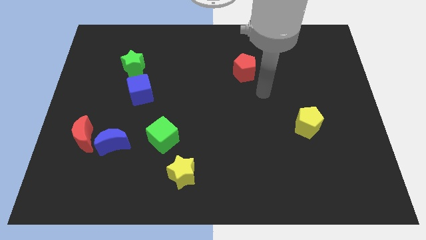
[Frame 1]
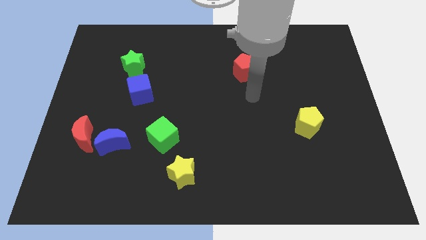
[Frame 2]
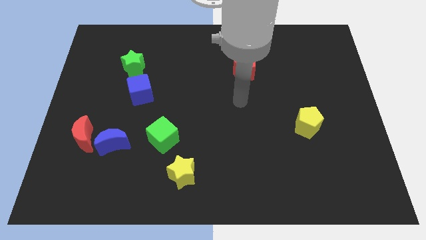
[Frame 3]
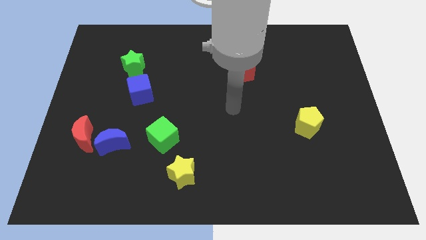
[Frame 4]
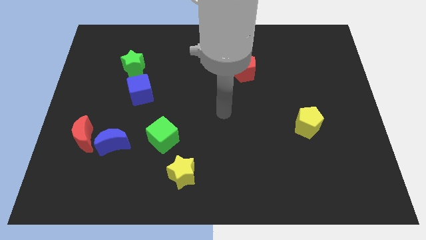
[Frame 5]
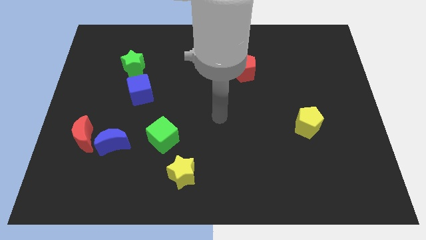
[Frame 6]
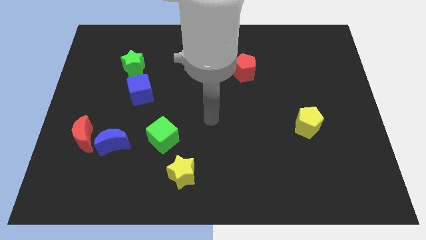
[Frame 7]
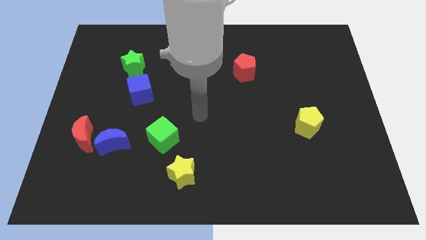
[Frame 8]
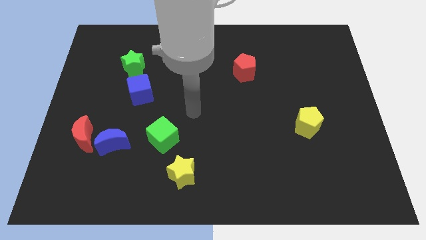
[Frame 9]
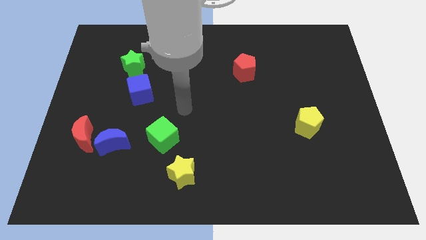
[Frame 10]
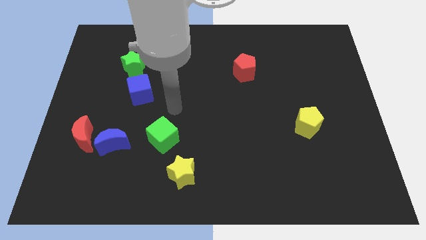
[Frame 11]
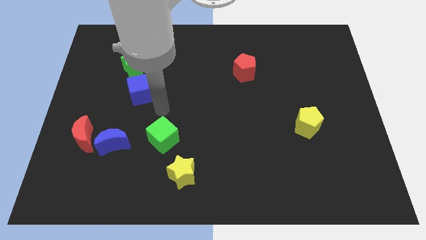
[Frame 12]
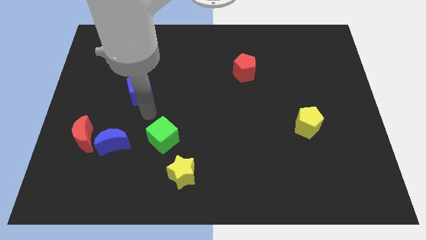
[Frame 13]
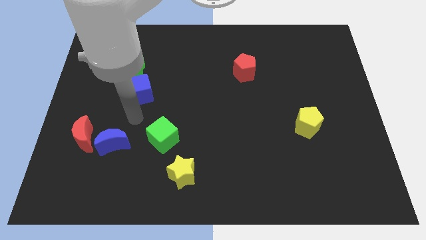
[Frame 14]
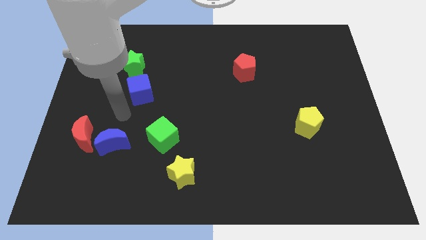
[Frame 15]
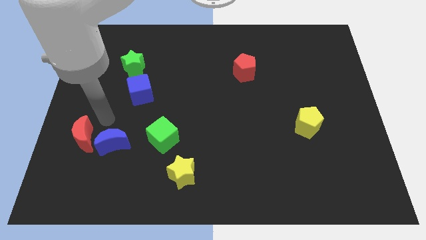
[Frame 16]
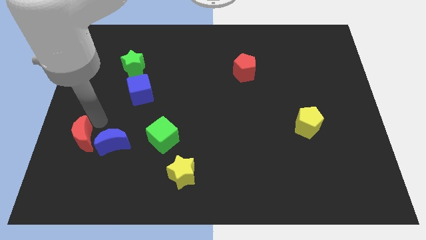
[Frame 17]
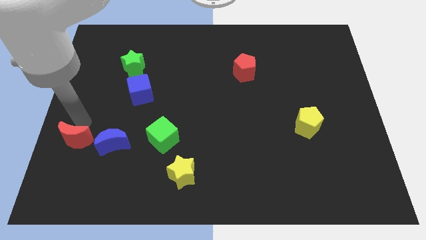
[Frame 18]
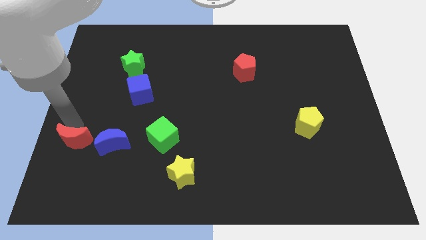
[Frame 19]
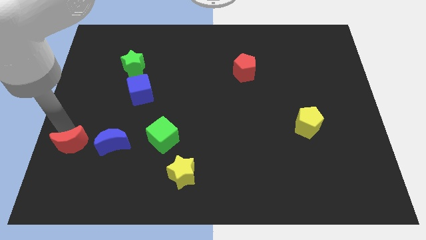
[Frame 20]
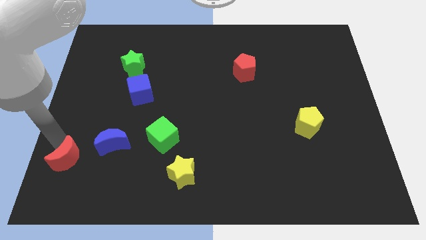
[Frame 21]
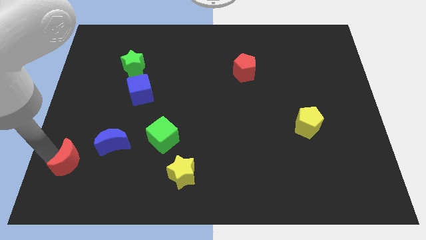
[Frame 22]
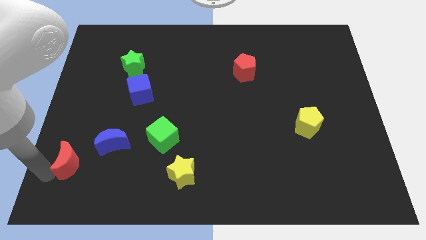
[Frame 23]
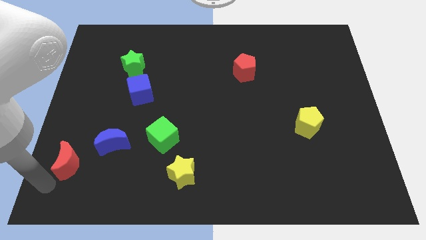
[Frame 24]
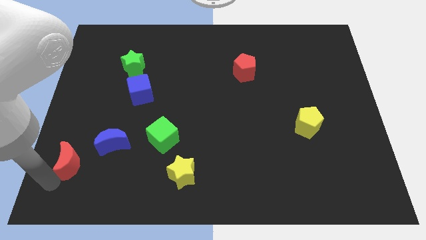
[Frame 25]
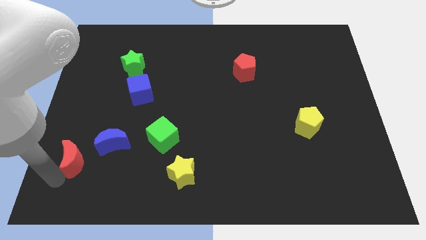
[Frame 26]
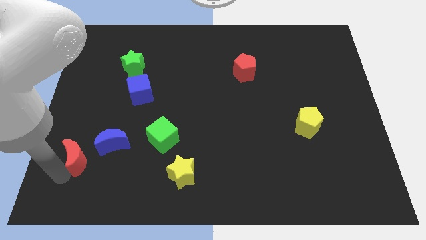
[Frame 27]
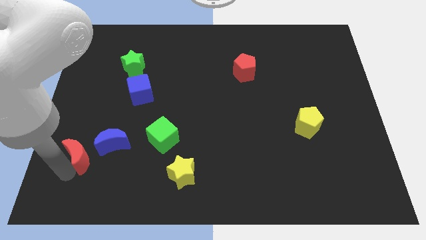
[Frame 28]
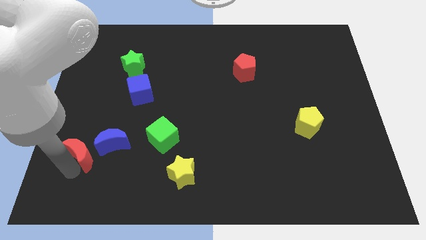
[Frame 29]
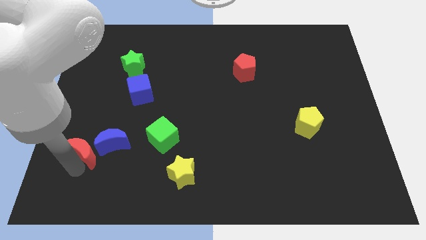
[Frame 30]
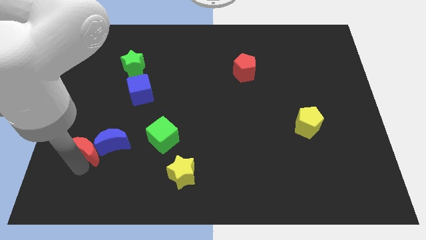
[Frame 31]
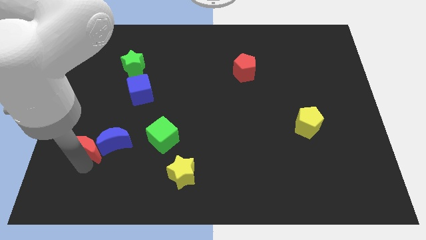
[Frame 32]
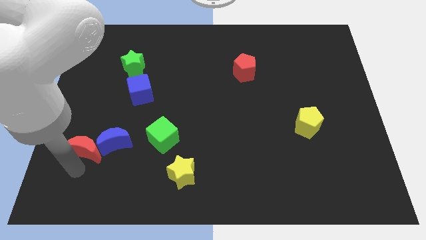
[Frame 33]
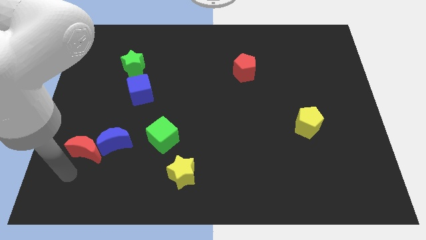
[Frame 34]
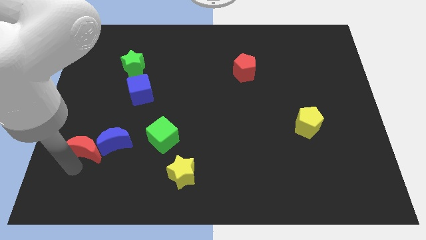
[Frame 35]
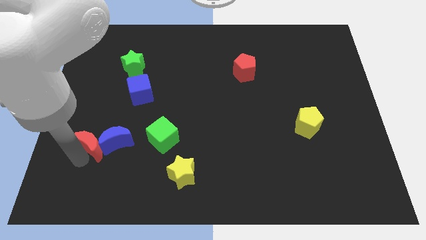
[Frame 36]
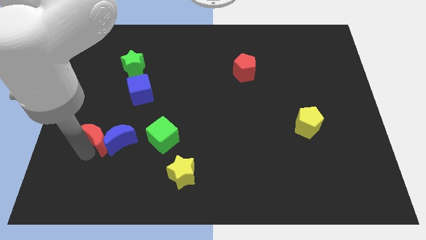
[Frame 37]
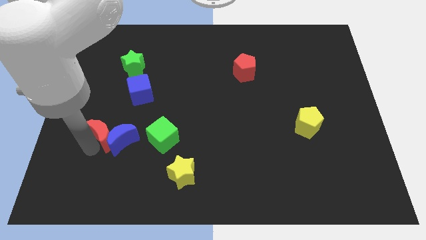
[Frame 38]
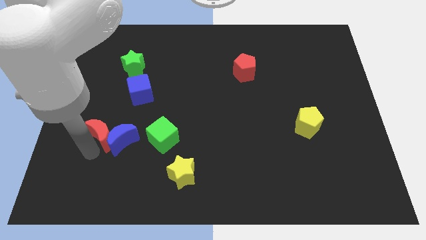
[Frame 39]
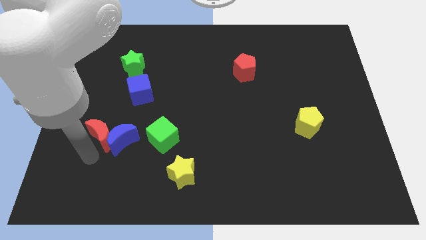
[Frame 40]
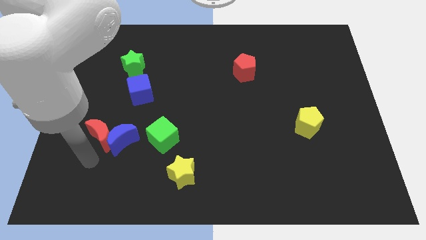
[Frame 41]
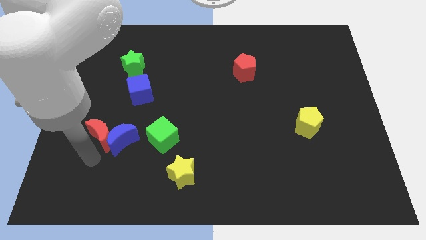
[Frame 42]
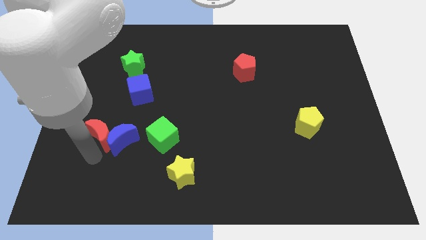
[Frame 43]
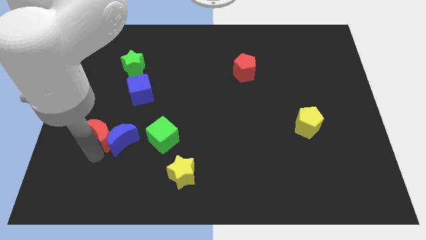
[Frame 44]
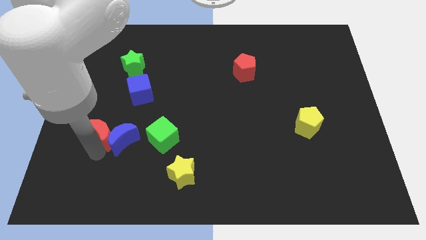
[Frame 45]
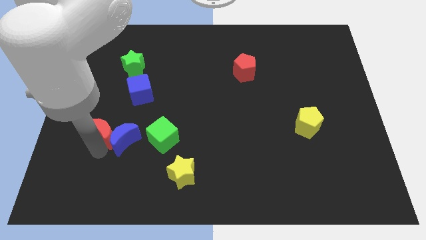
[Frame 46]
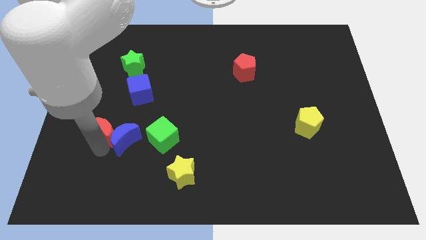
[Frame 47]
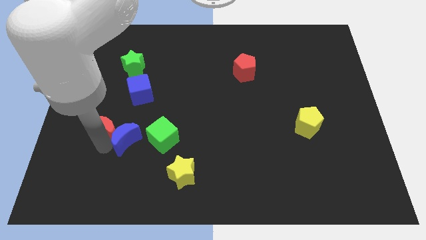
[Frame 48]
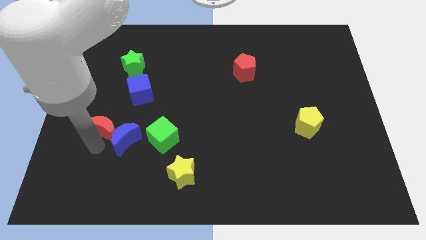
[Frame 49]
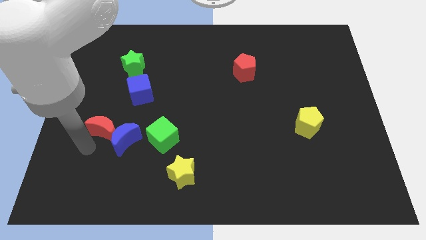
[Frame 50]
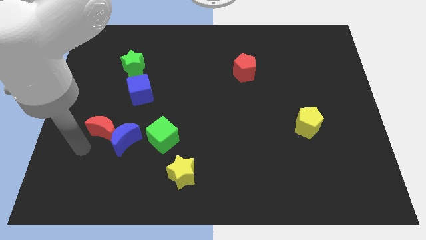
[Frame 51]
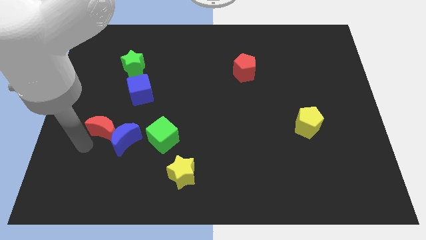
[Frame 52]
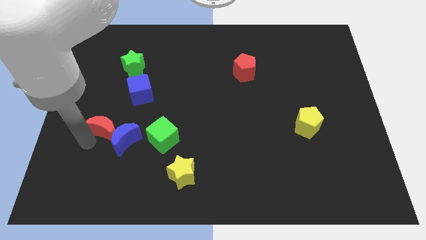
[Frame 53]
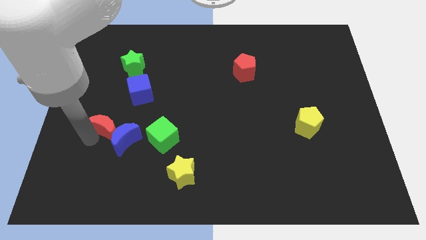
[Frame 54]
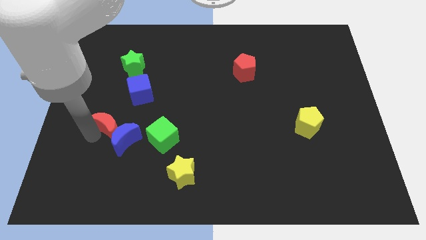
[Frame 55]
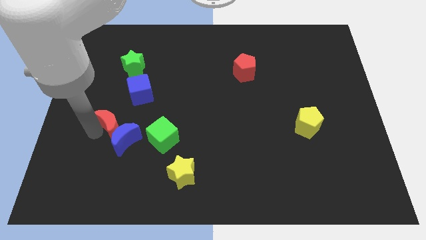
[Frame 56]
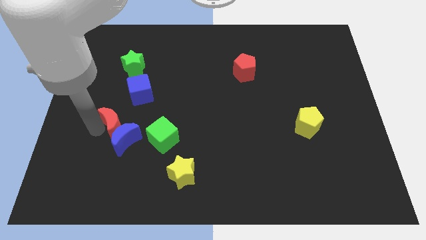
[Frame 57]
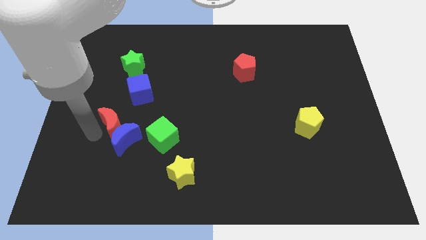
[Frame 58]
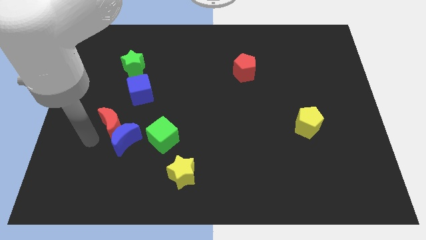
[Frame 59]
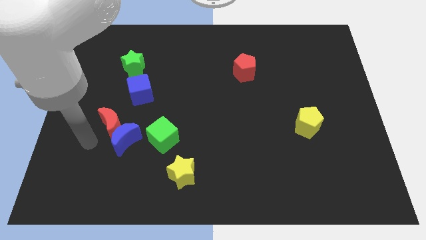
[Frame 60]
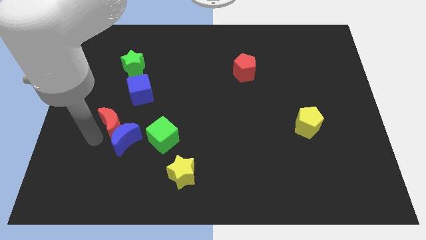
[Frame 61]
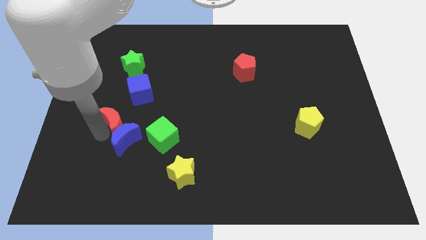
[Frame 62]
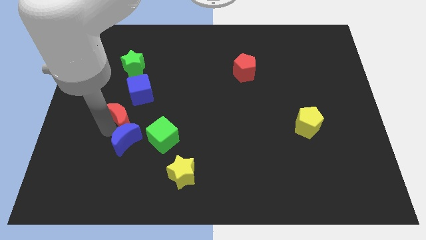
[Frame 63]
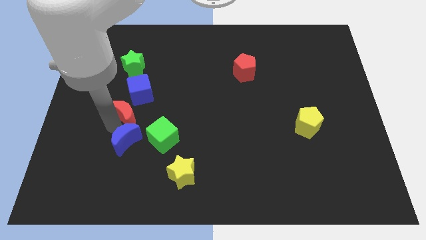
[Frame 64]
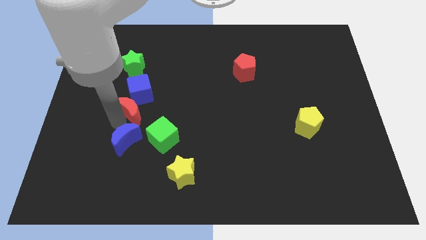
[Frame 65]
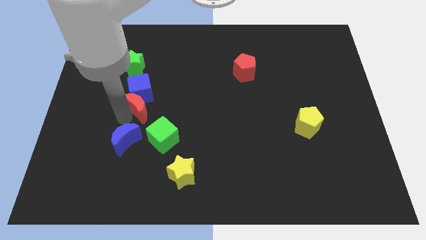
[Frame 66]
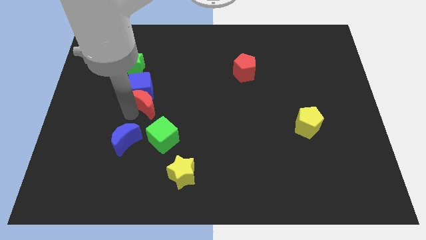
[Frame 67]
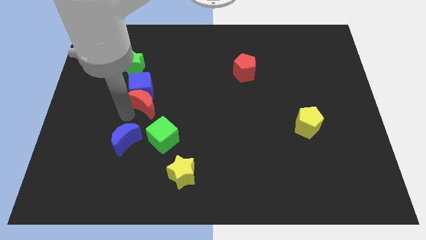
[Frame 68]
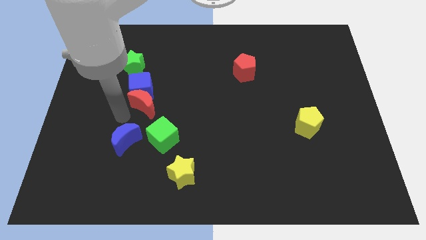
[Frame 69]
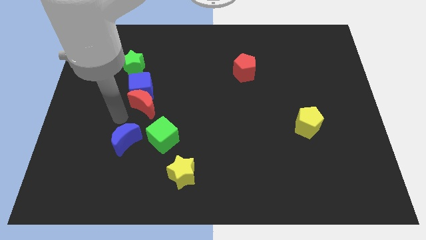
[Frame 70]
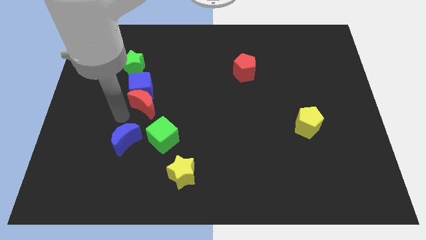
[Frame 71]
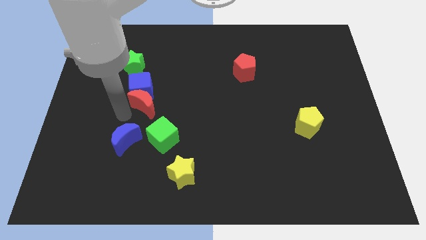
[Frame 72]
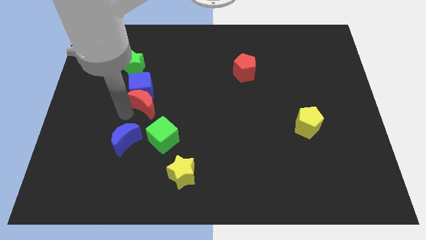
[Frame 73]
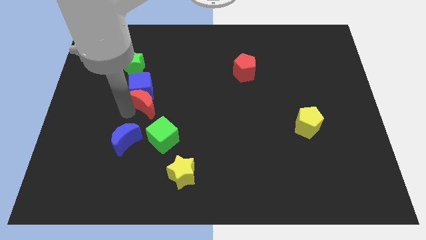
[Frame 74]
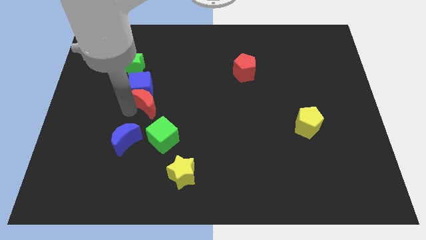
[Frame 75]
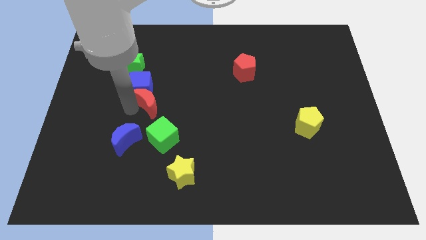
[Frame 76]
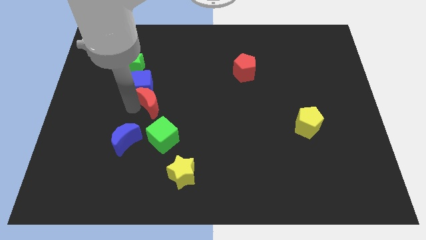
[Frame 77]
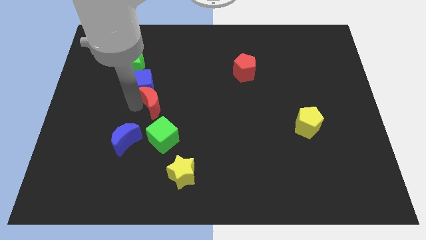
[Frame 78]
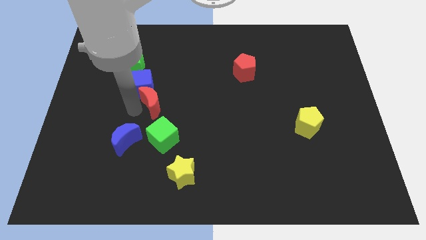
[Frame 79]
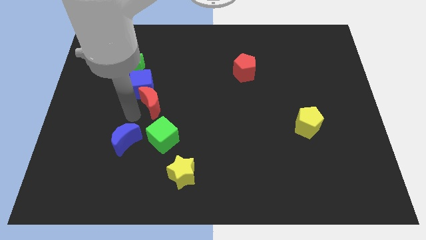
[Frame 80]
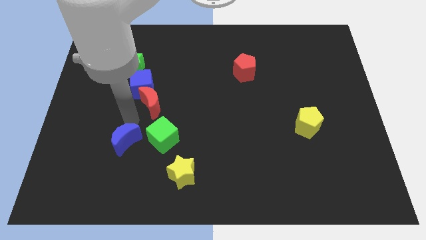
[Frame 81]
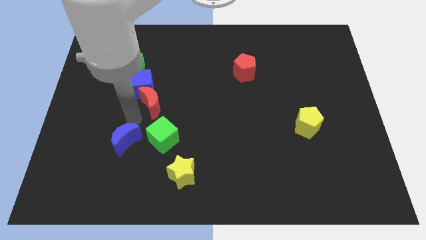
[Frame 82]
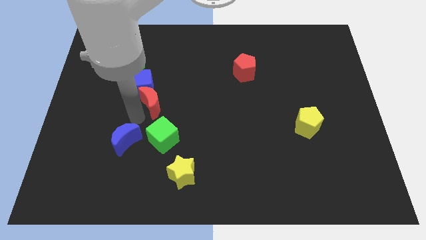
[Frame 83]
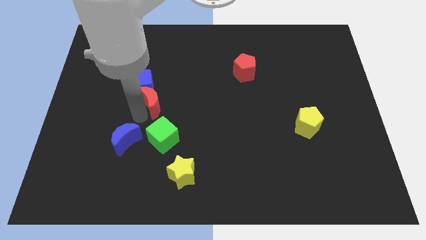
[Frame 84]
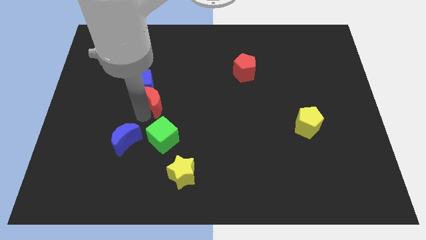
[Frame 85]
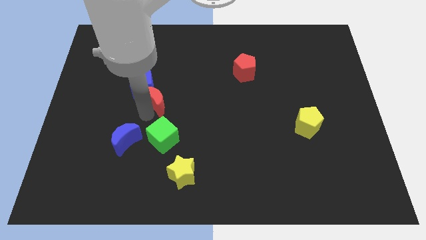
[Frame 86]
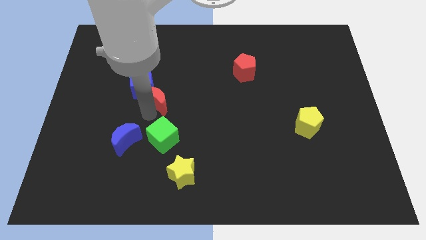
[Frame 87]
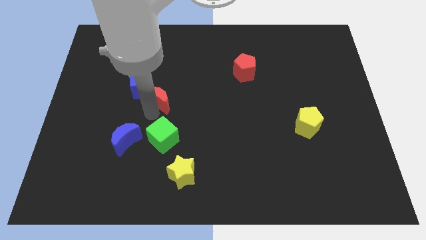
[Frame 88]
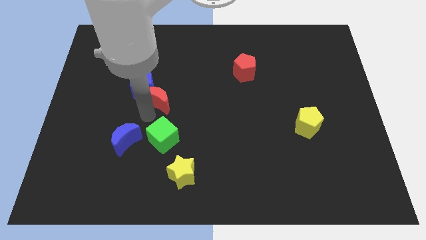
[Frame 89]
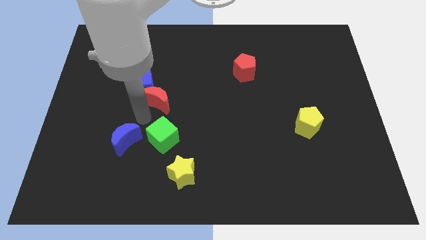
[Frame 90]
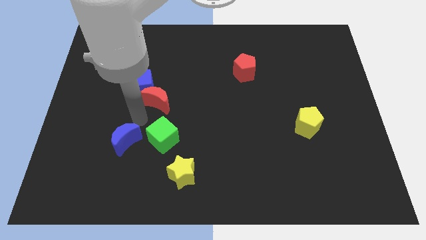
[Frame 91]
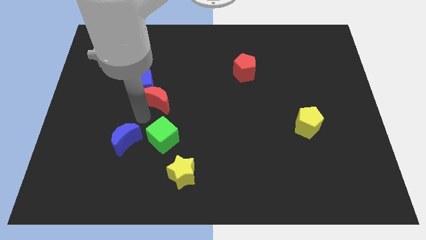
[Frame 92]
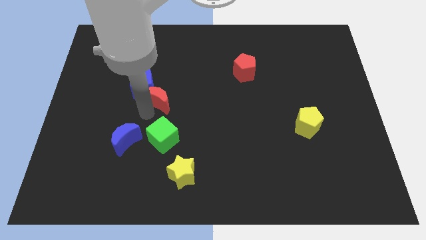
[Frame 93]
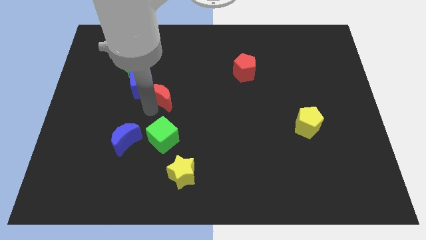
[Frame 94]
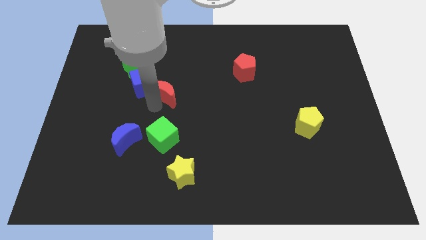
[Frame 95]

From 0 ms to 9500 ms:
slide the red moon up and to the right
